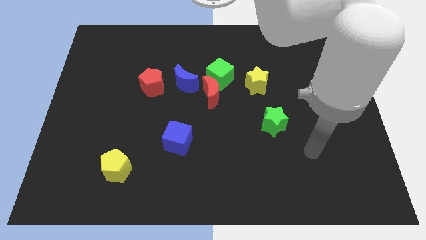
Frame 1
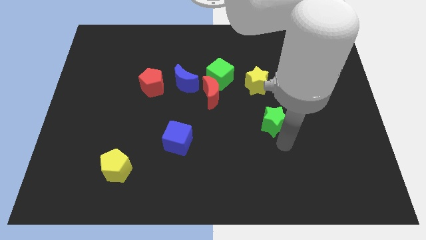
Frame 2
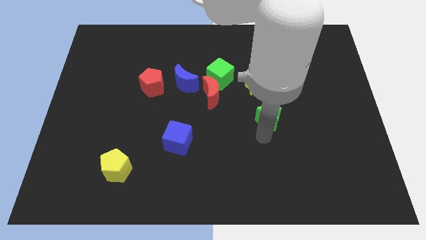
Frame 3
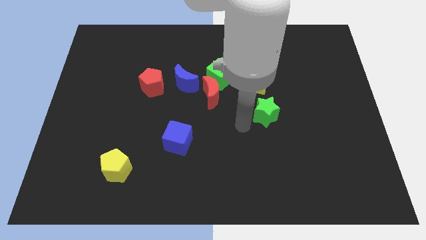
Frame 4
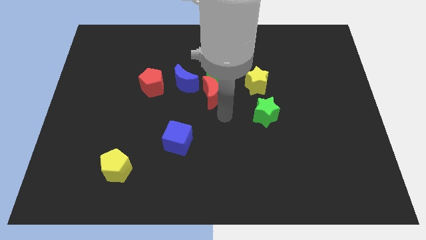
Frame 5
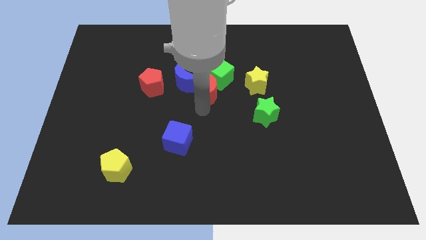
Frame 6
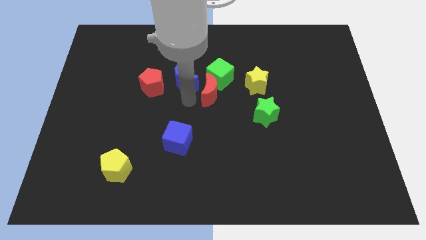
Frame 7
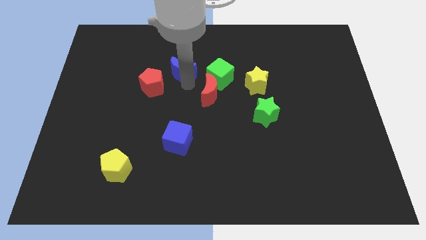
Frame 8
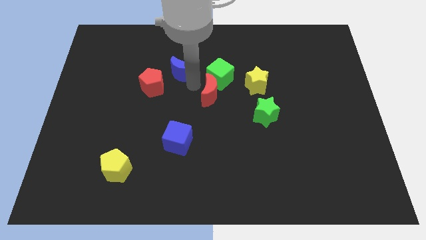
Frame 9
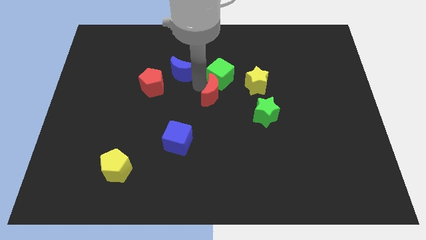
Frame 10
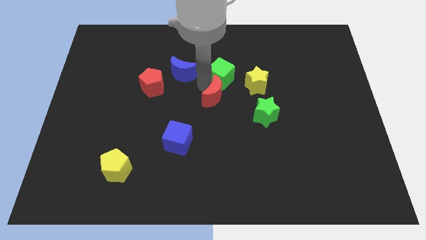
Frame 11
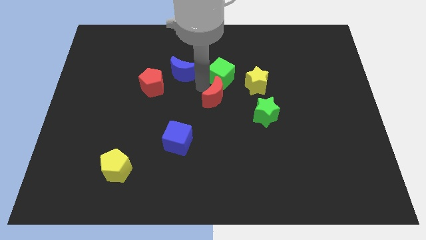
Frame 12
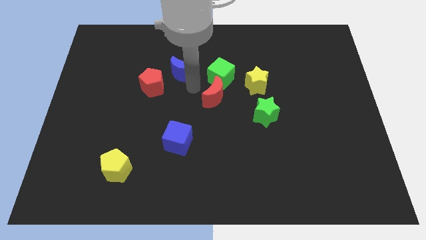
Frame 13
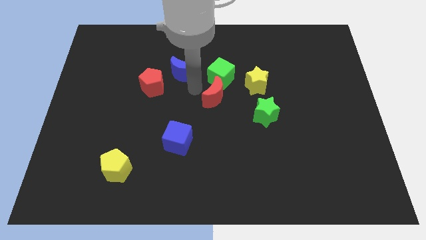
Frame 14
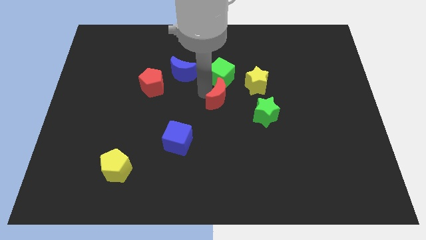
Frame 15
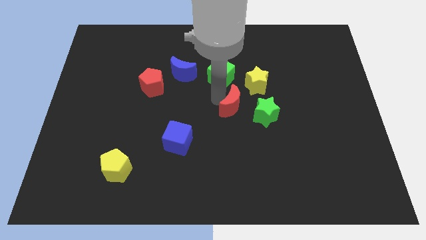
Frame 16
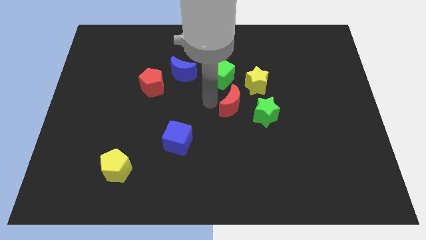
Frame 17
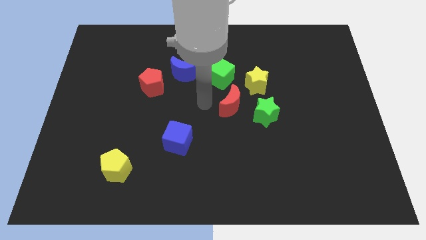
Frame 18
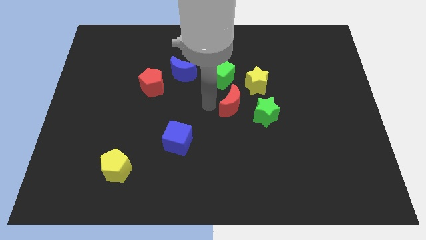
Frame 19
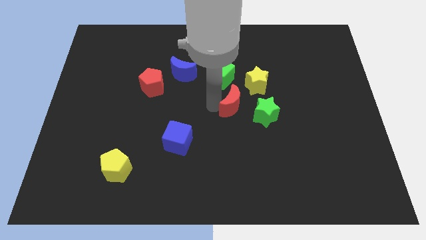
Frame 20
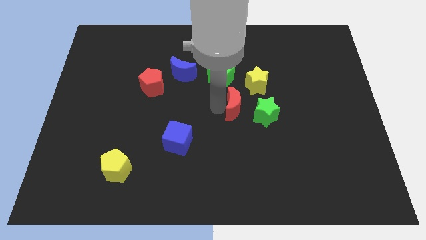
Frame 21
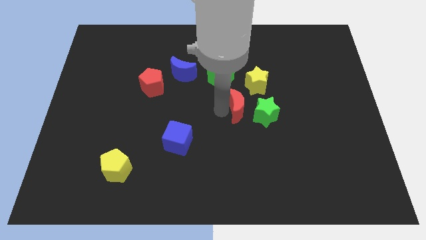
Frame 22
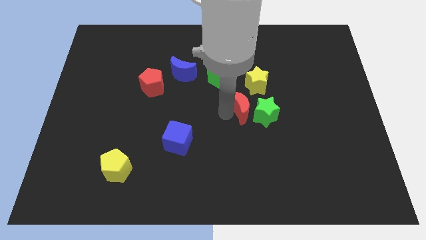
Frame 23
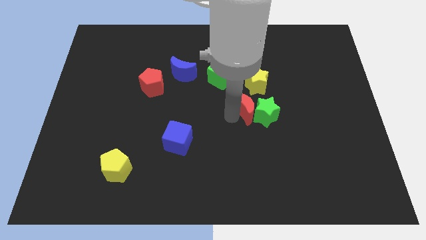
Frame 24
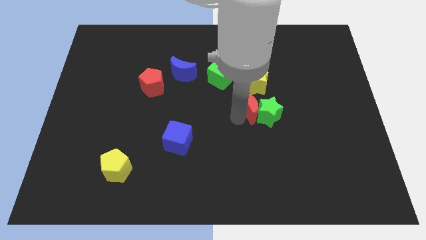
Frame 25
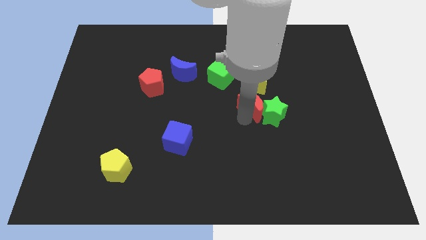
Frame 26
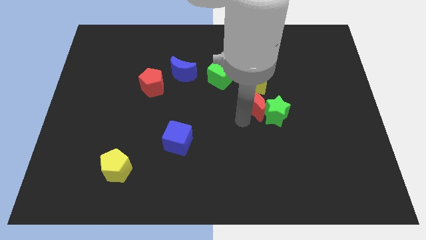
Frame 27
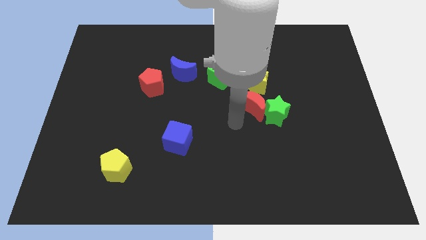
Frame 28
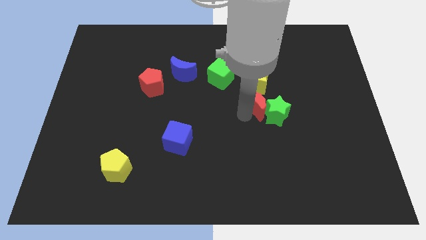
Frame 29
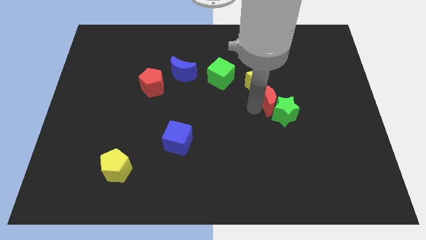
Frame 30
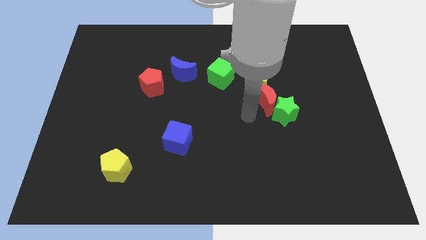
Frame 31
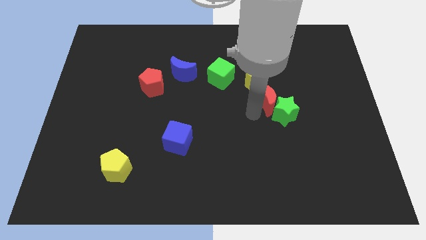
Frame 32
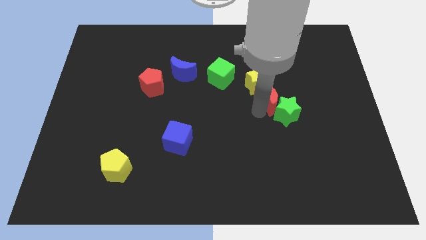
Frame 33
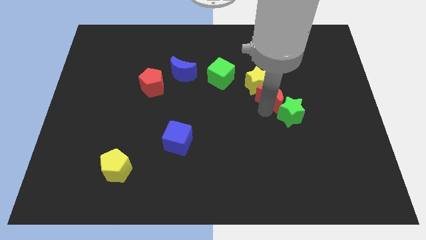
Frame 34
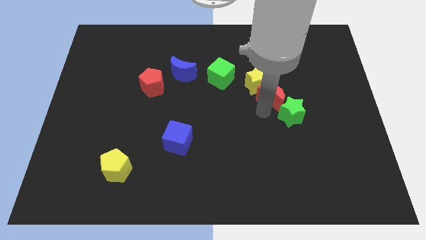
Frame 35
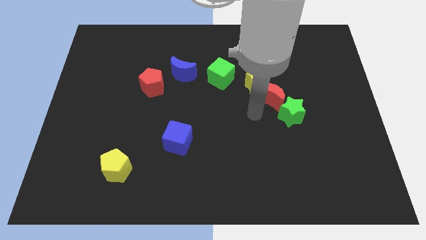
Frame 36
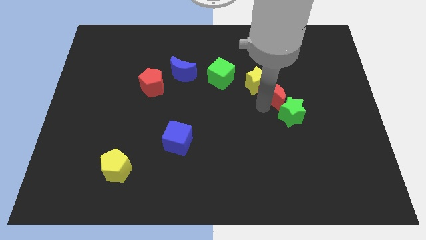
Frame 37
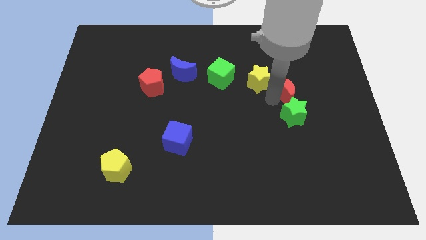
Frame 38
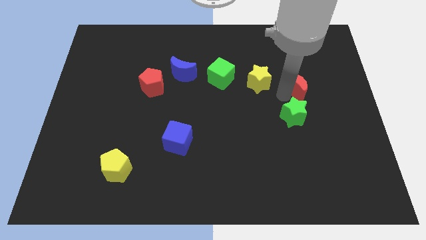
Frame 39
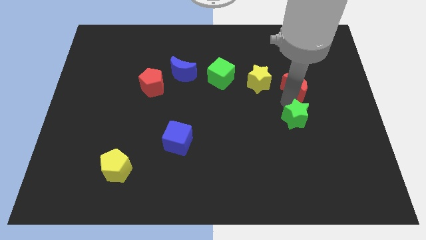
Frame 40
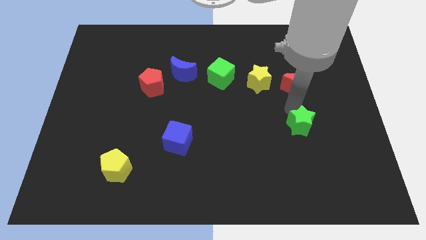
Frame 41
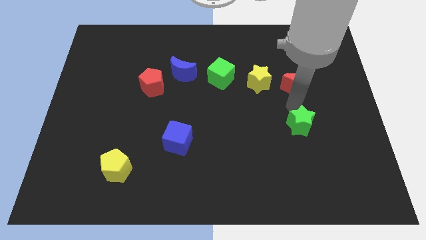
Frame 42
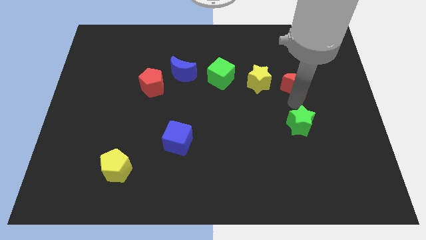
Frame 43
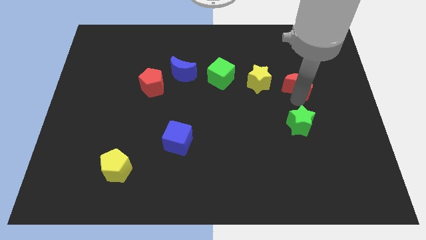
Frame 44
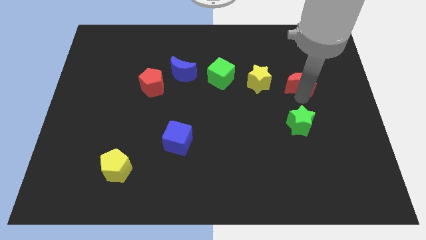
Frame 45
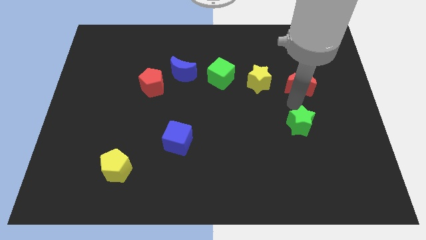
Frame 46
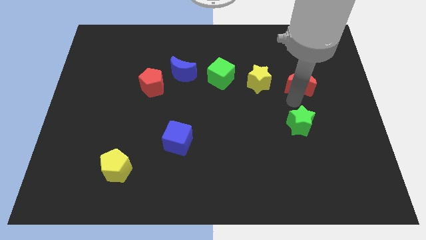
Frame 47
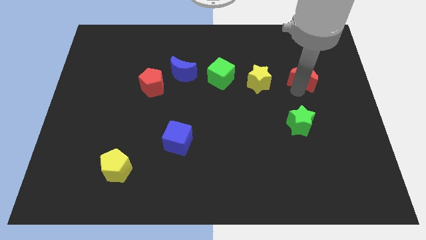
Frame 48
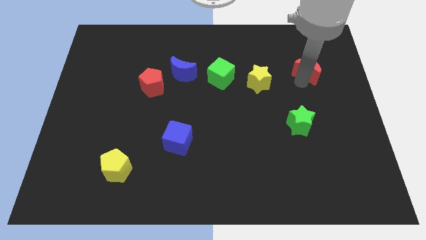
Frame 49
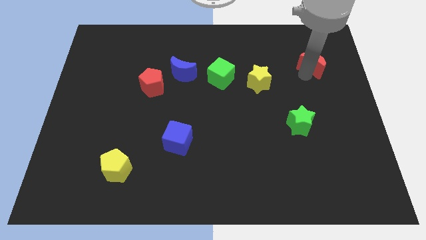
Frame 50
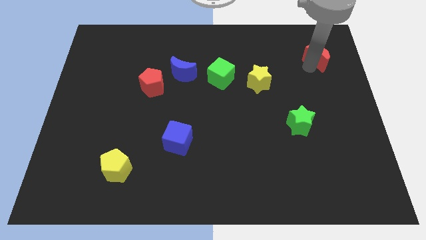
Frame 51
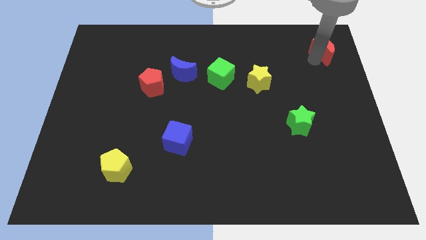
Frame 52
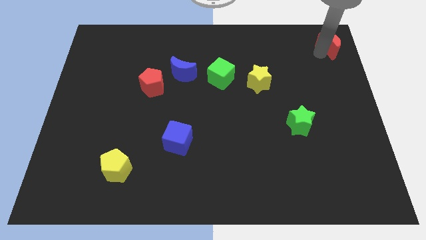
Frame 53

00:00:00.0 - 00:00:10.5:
move the red moon to the top right of the board

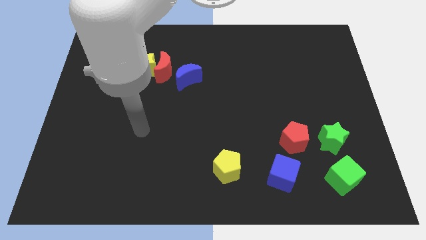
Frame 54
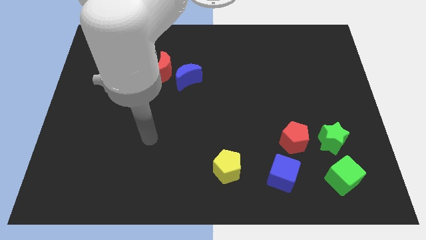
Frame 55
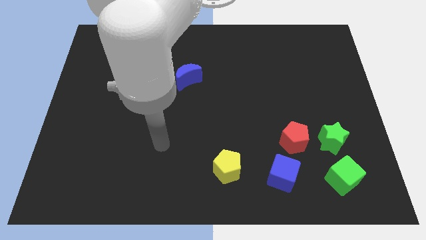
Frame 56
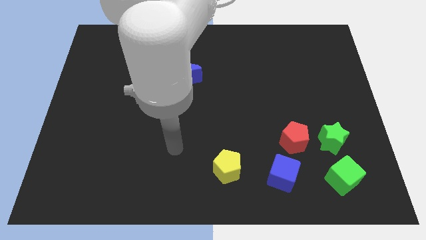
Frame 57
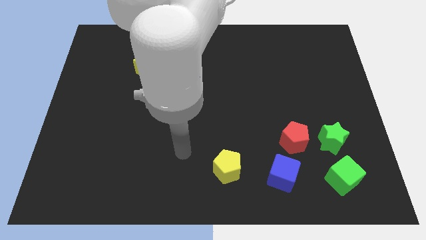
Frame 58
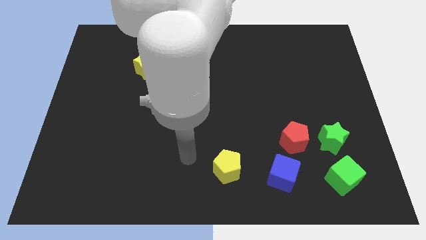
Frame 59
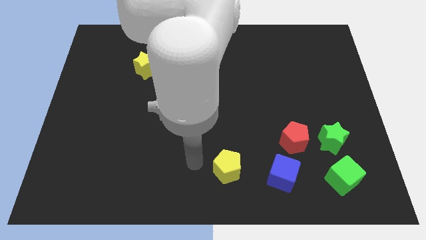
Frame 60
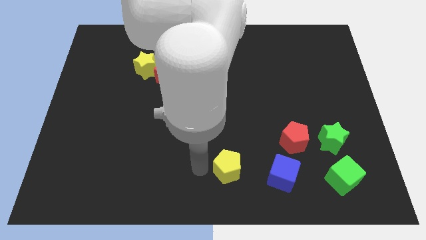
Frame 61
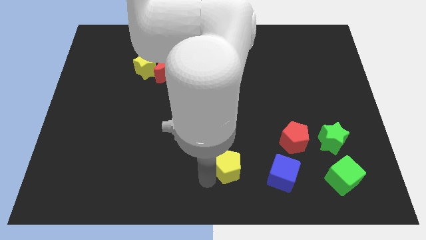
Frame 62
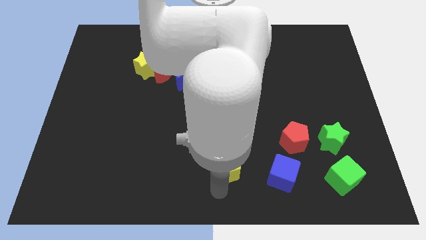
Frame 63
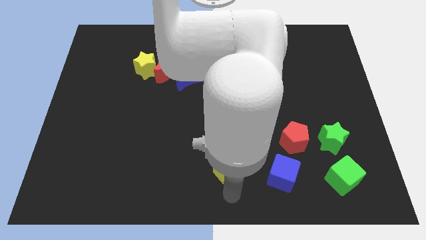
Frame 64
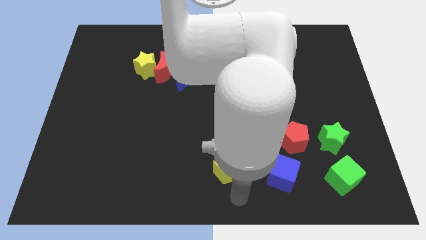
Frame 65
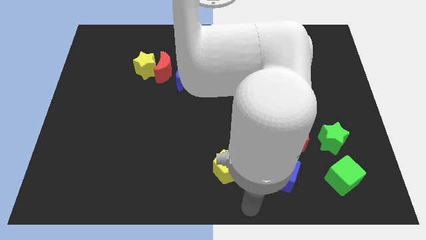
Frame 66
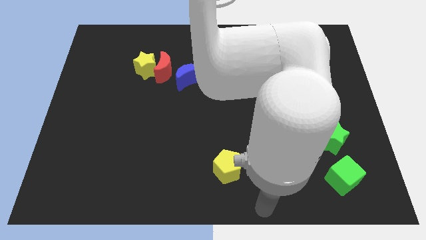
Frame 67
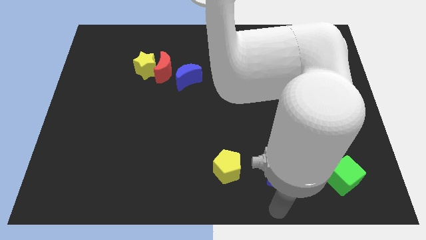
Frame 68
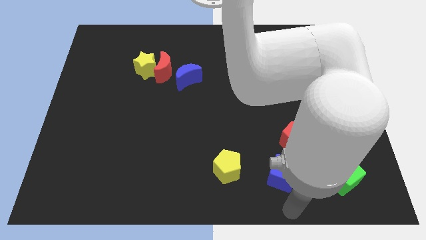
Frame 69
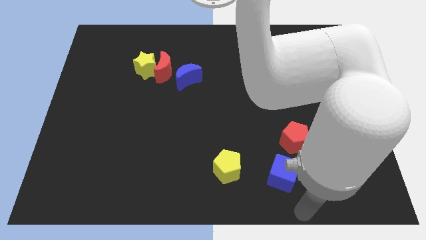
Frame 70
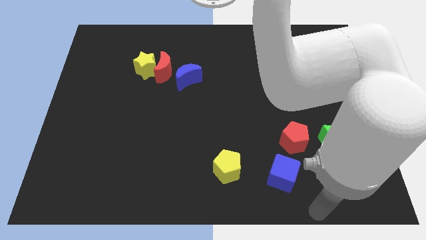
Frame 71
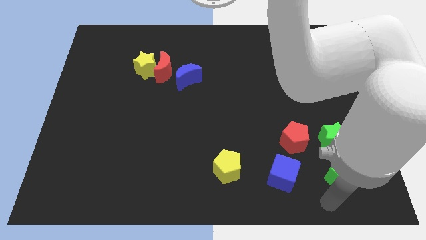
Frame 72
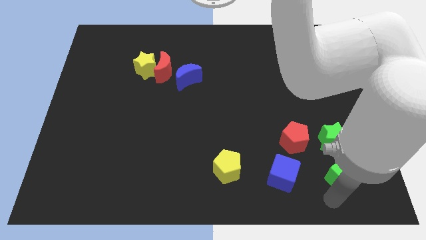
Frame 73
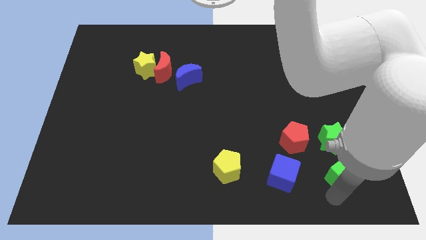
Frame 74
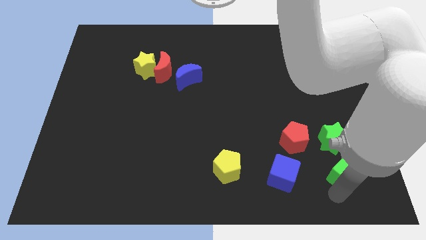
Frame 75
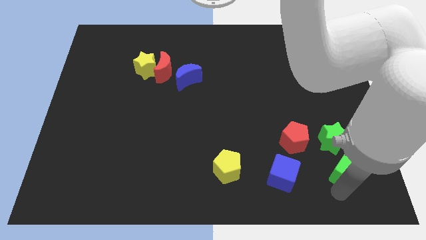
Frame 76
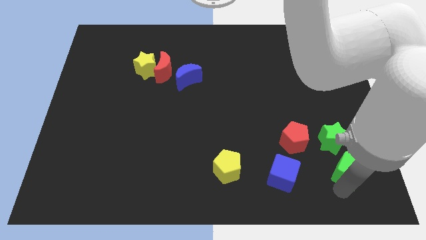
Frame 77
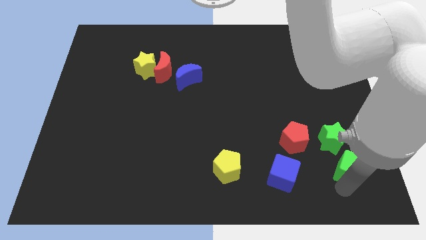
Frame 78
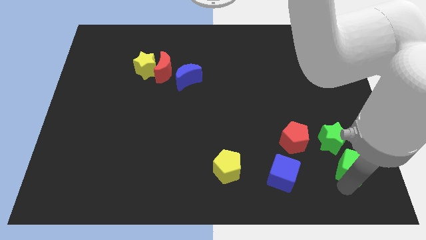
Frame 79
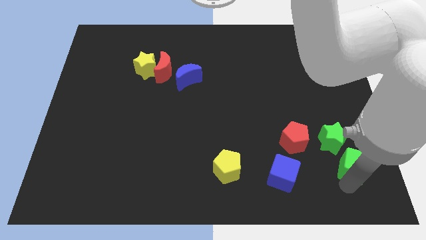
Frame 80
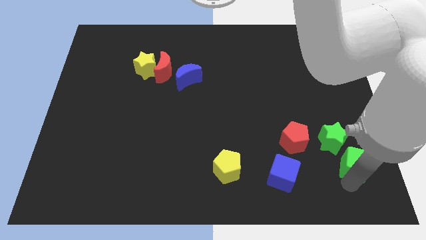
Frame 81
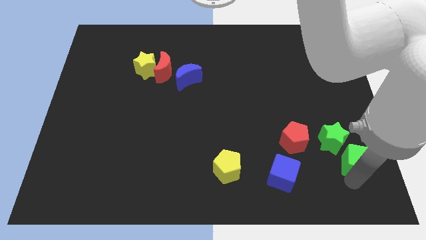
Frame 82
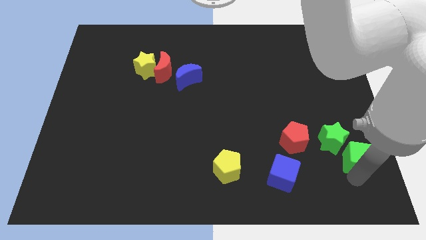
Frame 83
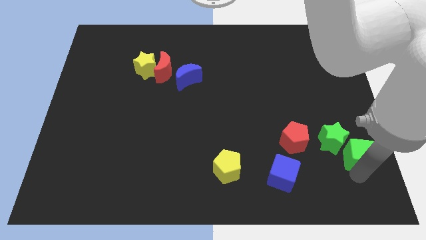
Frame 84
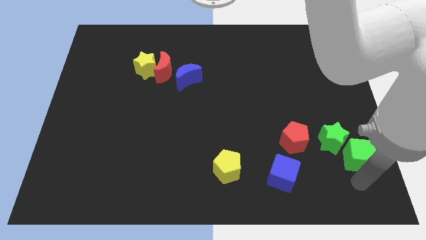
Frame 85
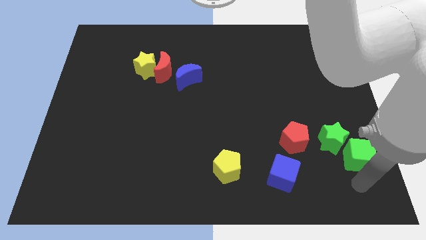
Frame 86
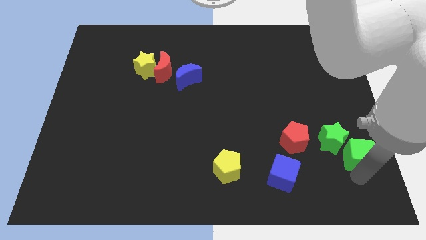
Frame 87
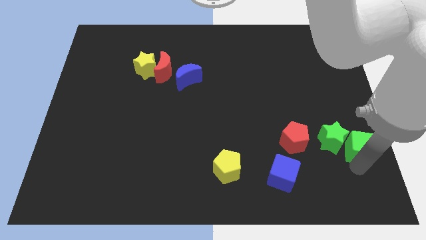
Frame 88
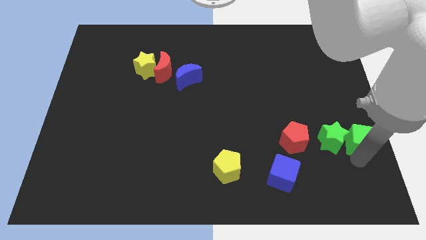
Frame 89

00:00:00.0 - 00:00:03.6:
slide the green cube to the right side of the board
